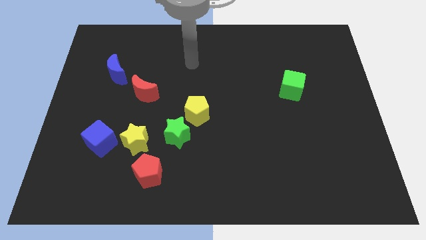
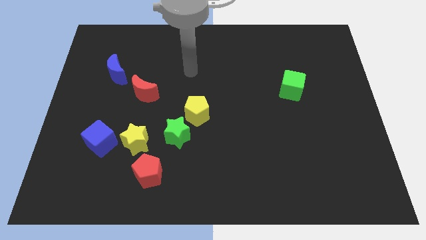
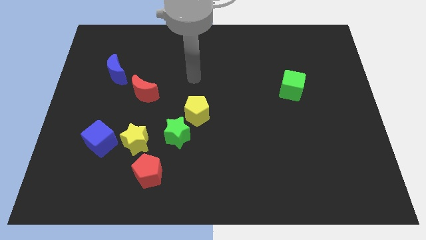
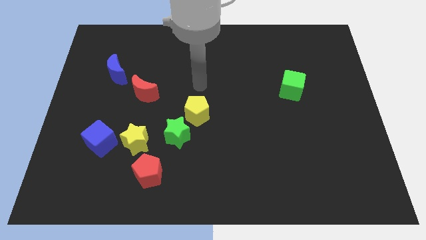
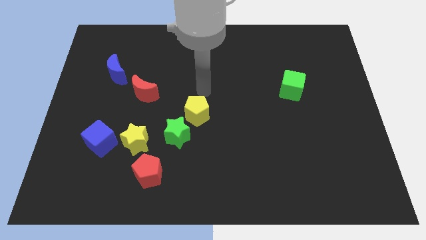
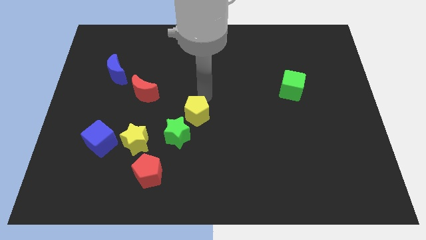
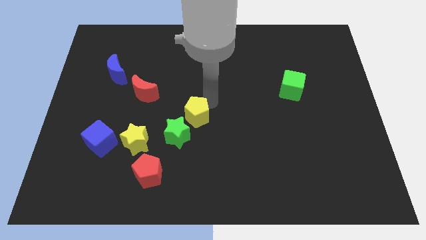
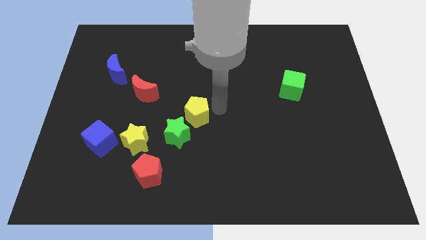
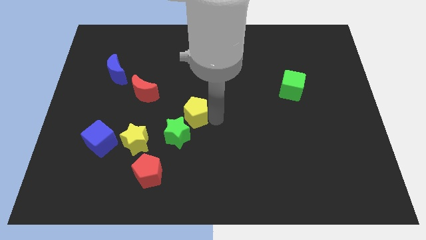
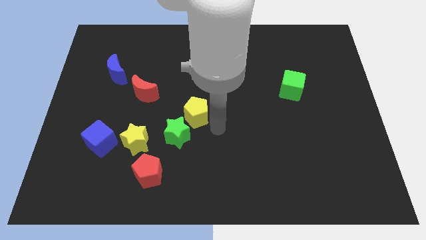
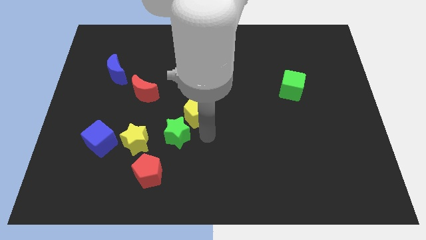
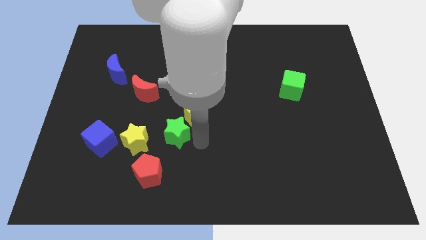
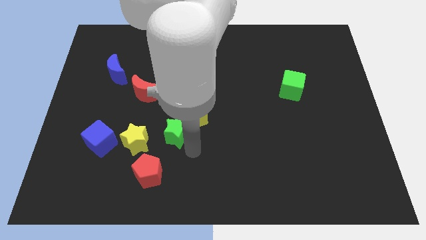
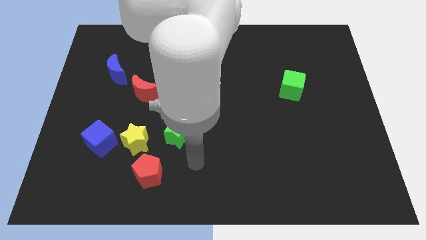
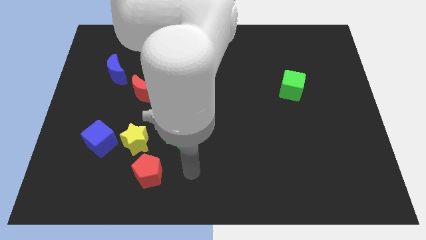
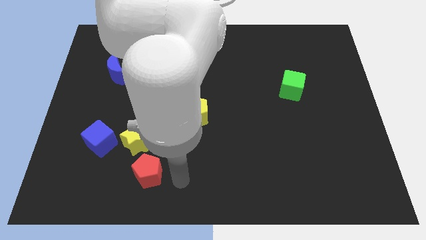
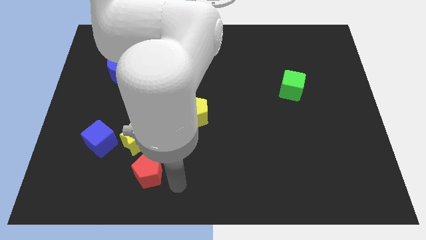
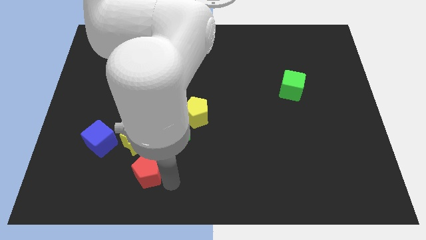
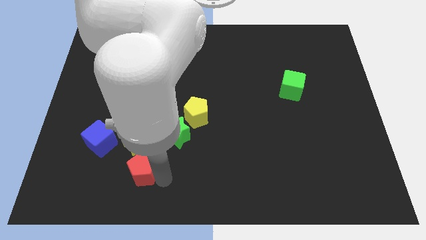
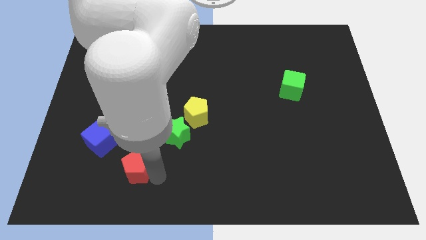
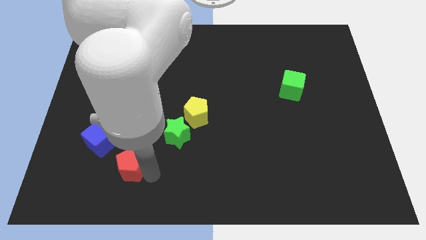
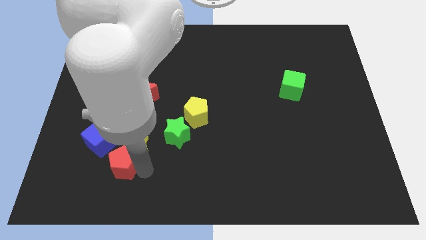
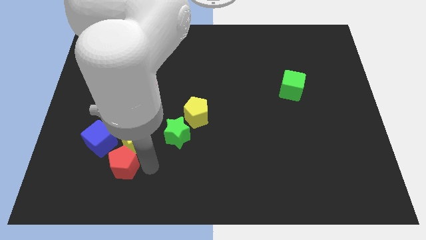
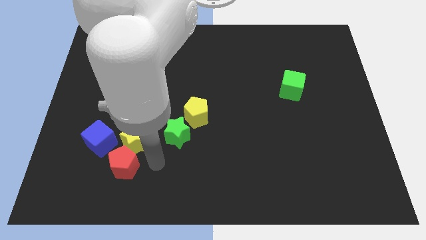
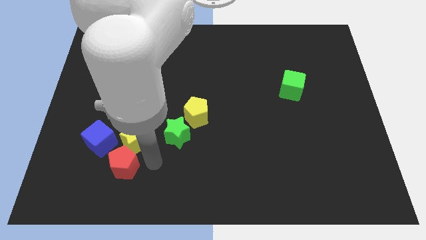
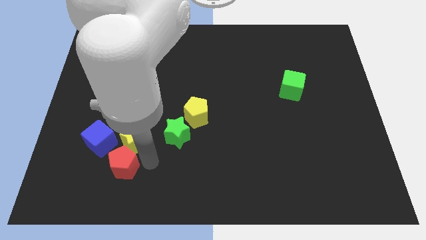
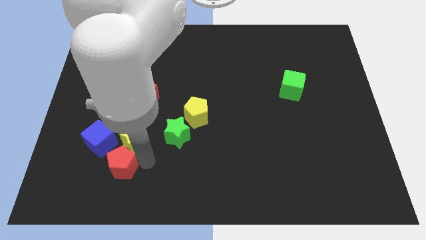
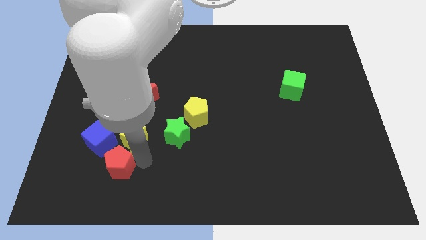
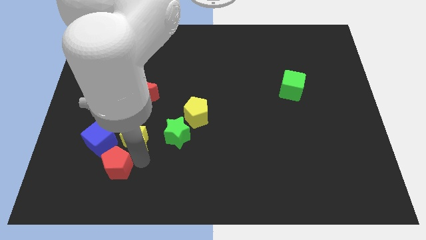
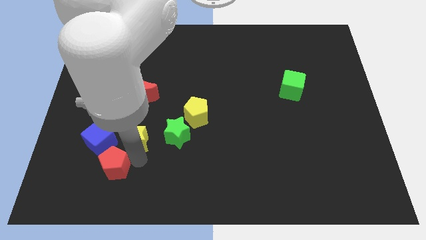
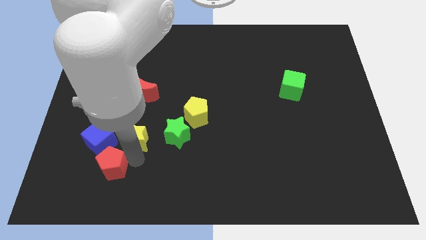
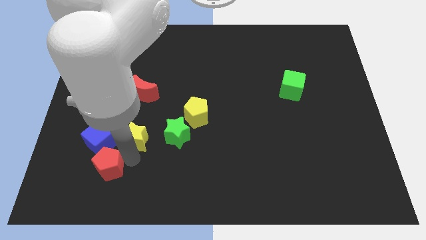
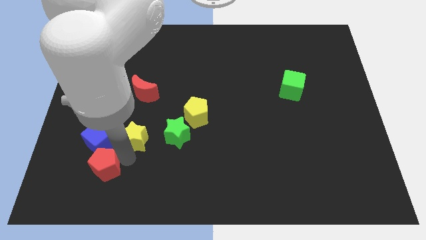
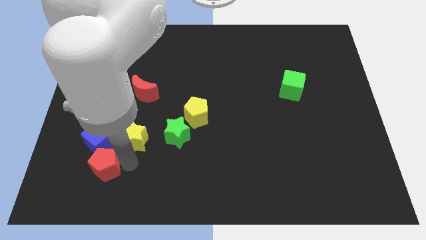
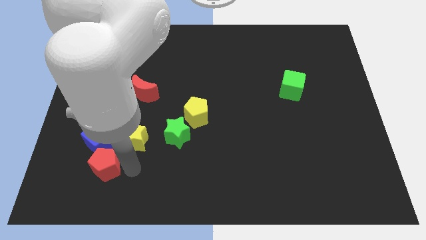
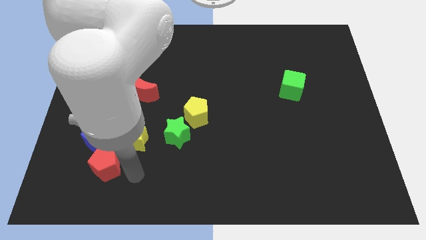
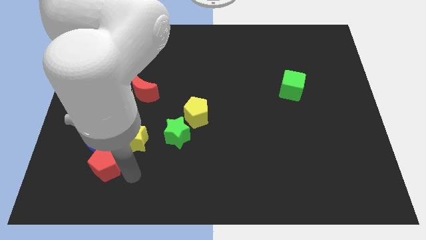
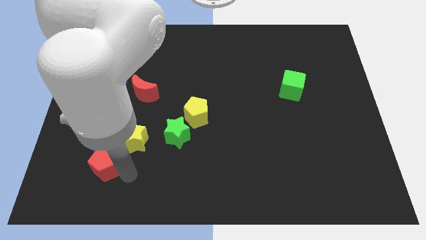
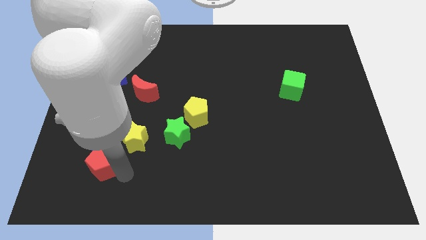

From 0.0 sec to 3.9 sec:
move the red pentagon up and then left somewhat

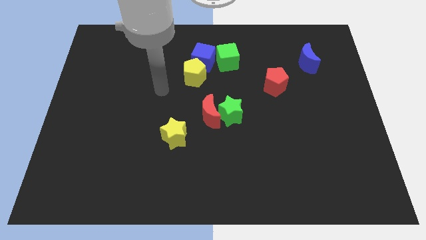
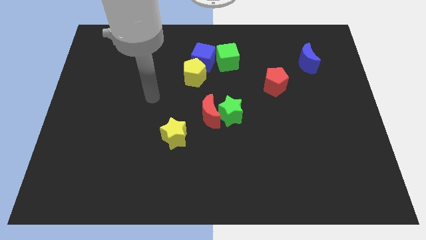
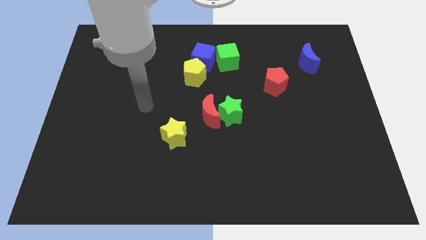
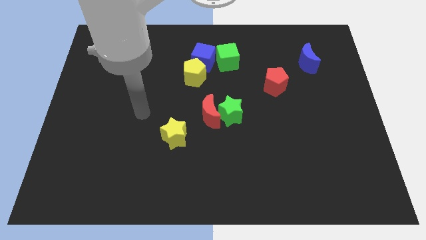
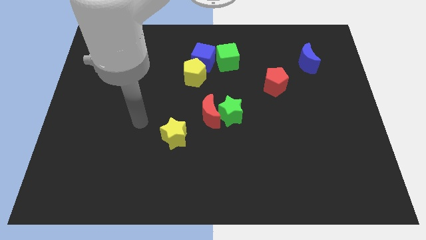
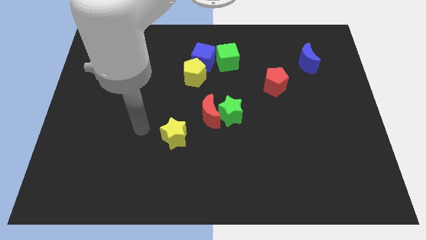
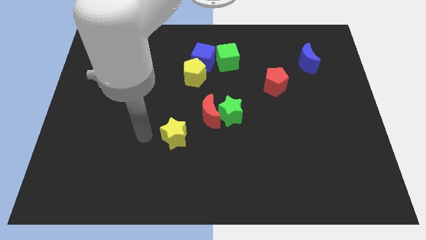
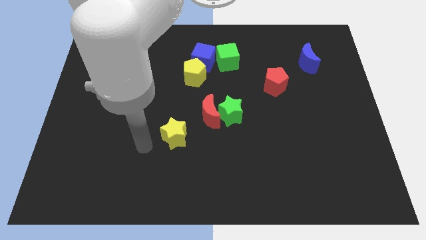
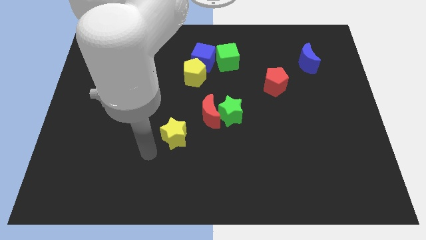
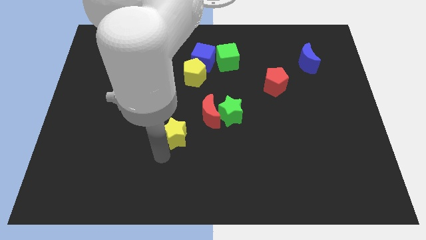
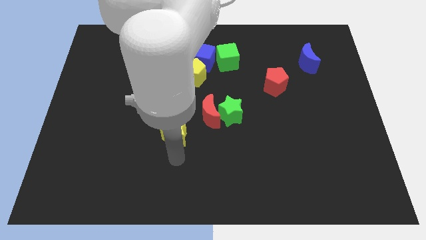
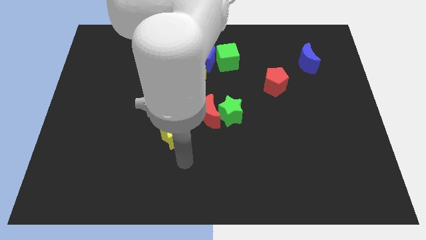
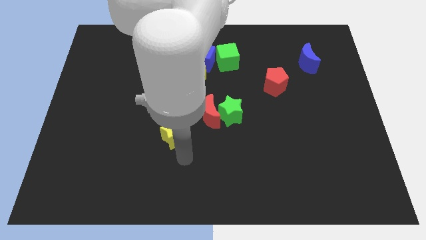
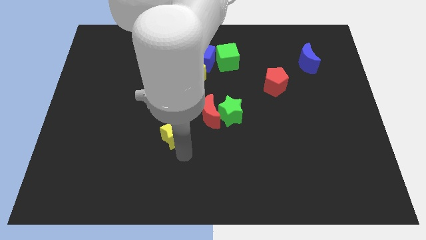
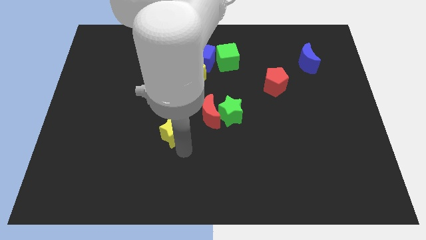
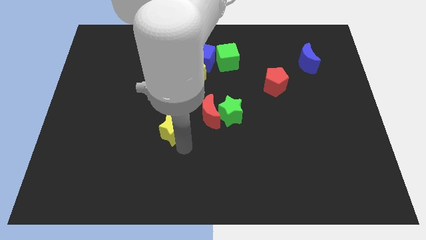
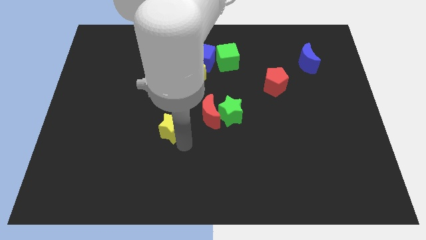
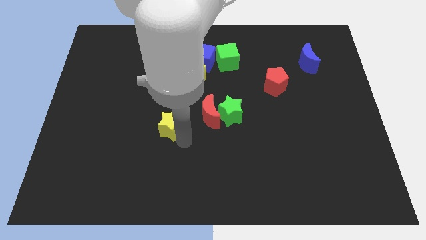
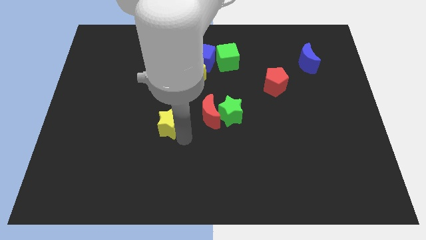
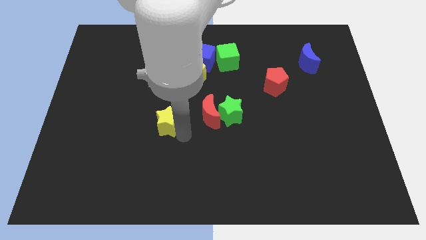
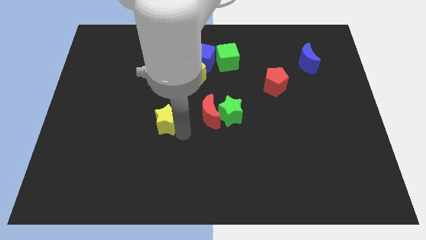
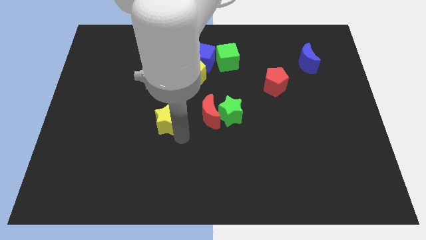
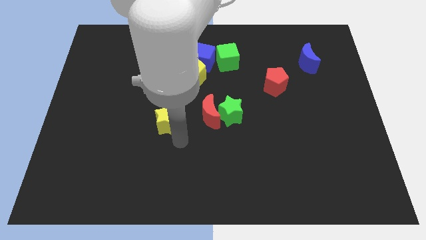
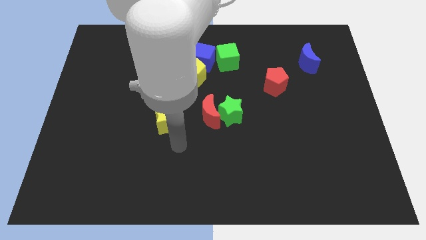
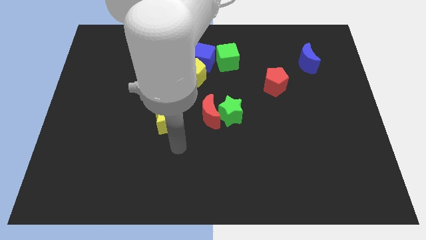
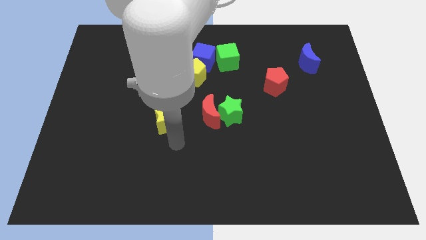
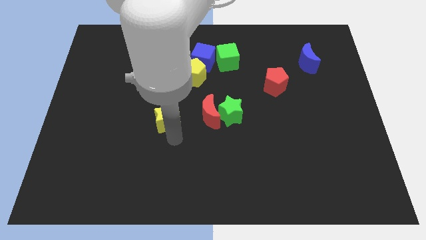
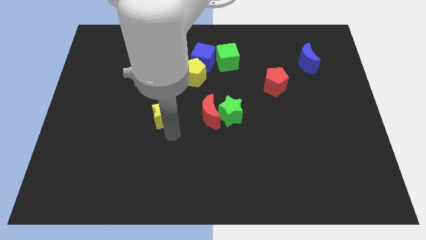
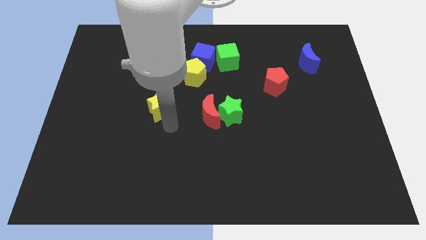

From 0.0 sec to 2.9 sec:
slightly slide the yellow star upwards and then left

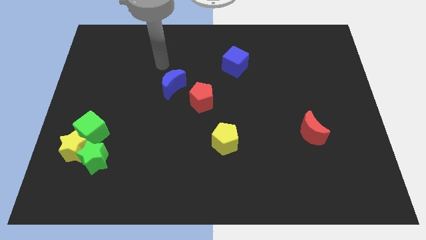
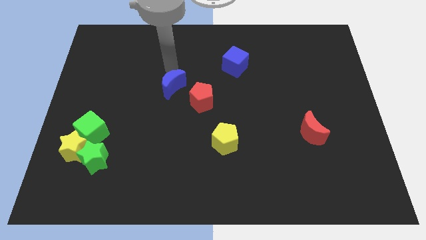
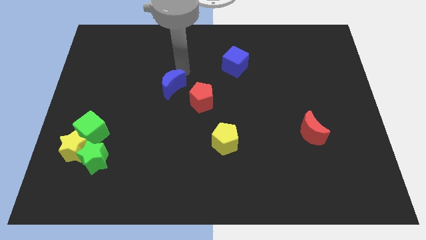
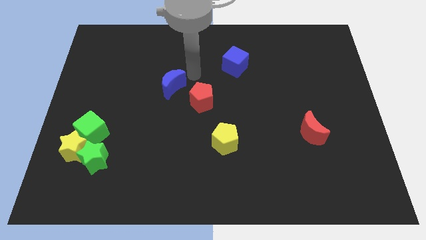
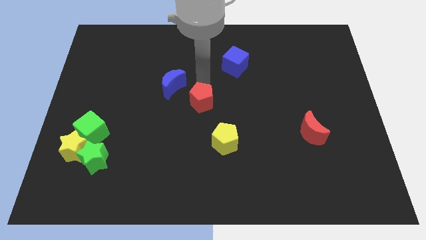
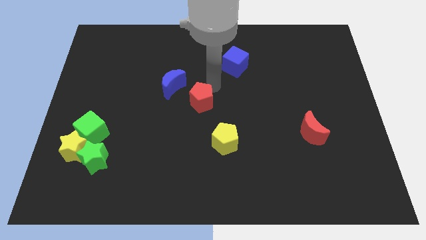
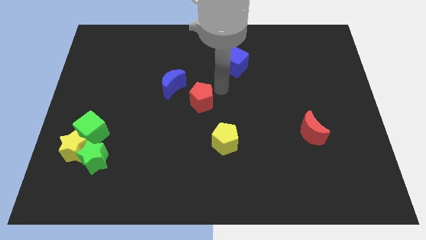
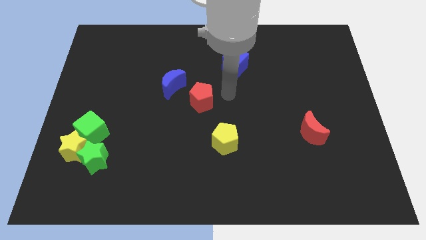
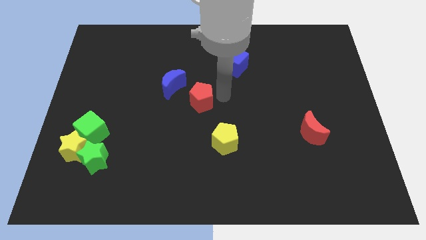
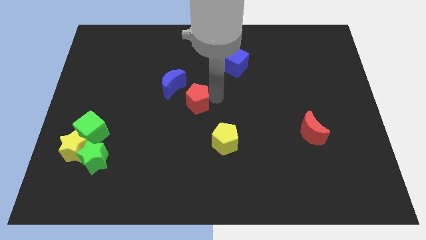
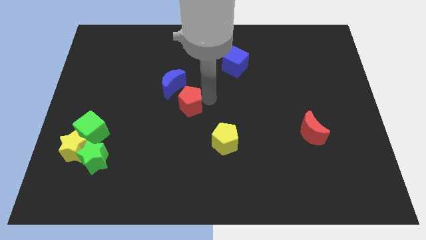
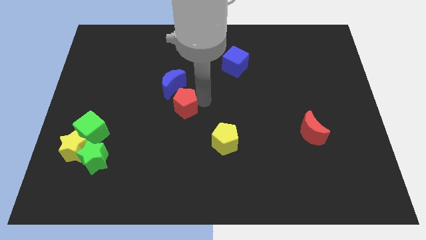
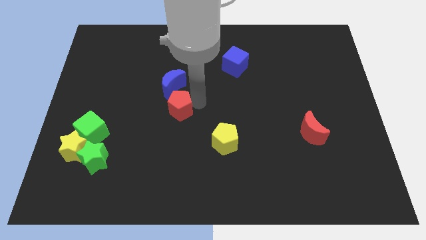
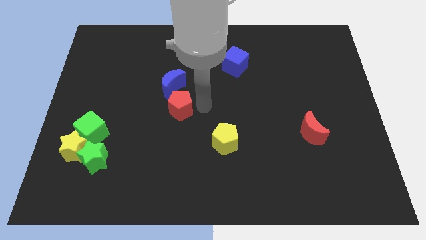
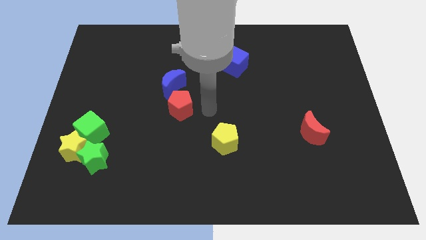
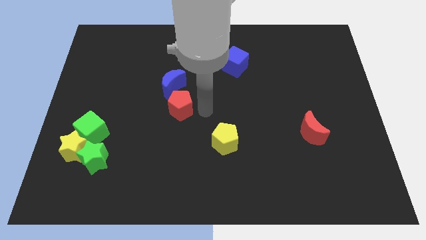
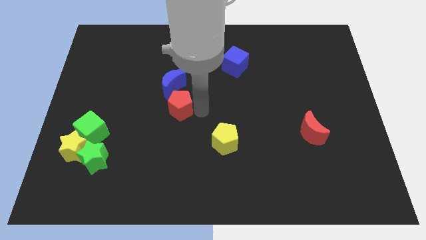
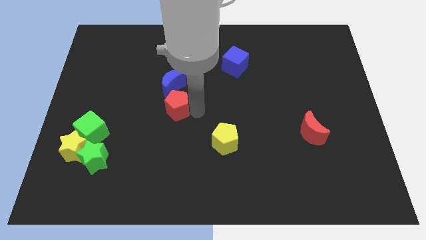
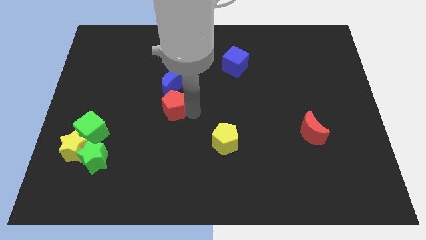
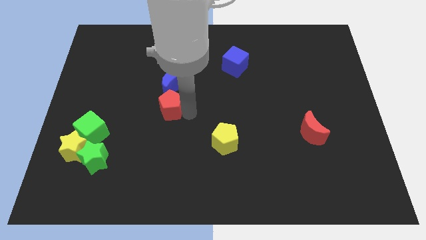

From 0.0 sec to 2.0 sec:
slightly slide the red pentagon to the left
